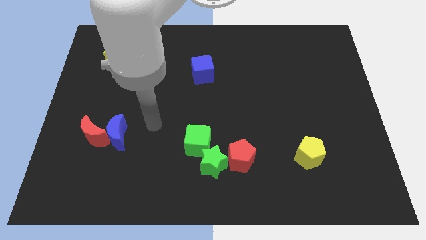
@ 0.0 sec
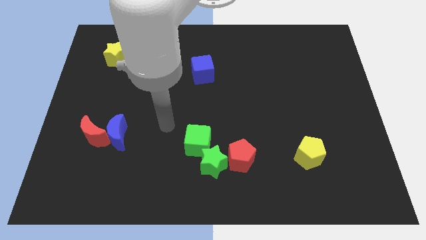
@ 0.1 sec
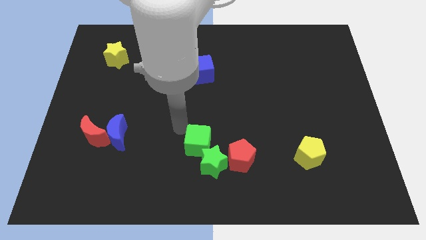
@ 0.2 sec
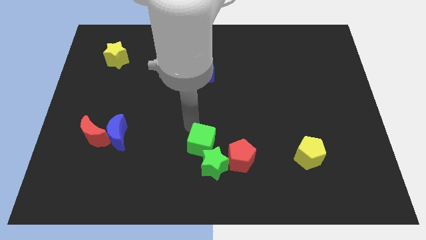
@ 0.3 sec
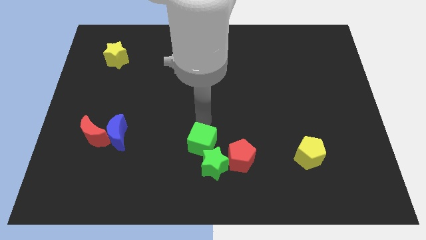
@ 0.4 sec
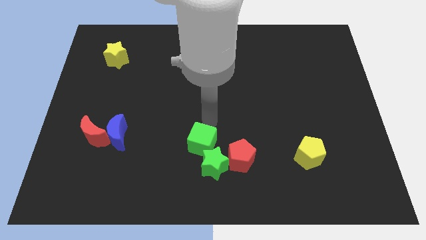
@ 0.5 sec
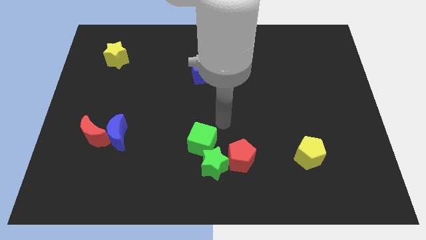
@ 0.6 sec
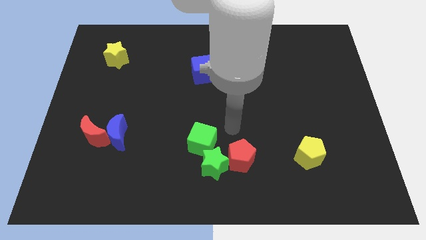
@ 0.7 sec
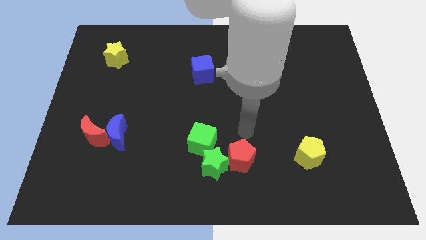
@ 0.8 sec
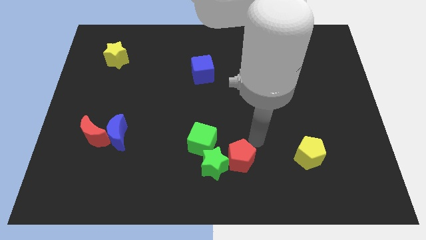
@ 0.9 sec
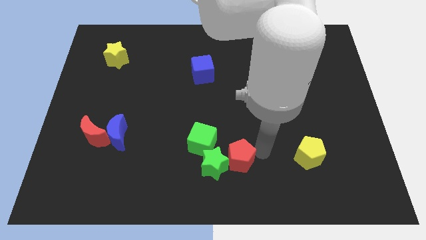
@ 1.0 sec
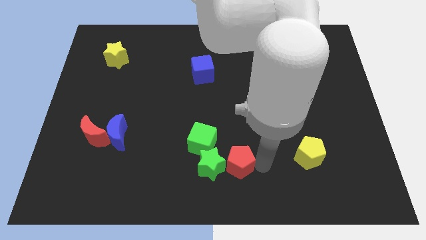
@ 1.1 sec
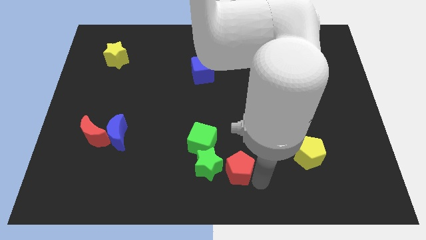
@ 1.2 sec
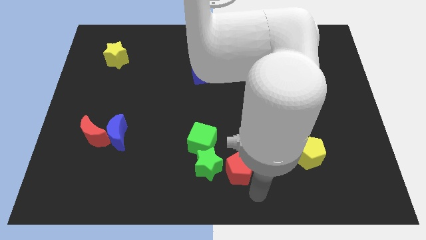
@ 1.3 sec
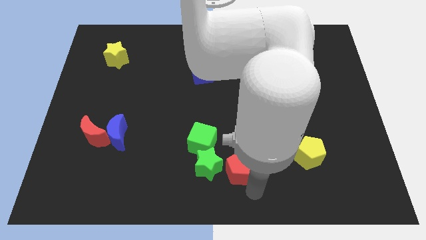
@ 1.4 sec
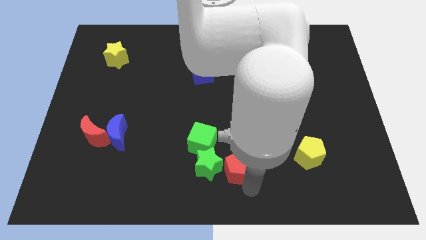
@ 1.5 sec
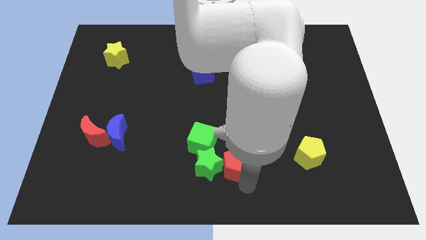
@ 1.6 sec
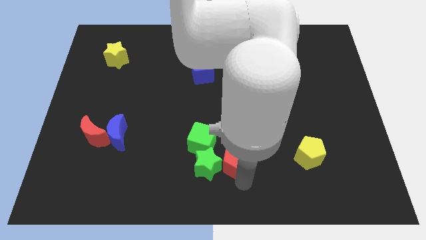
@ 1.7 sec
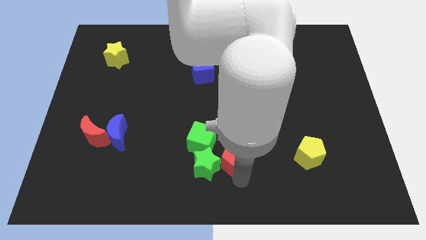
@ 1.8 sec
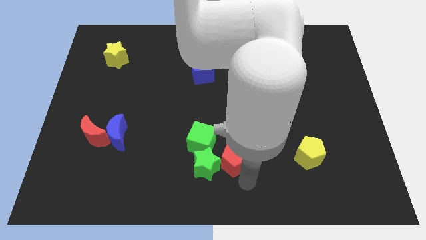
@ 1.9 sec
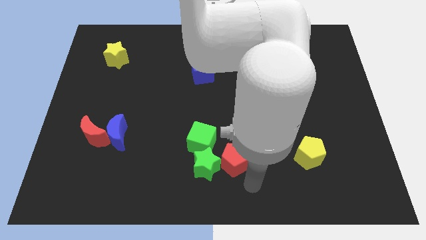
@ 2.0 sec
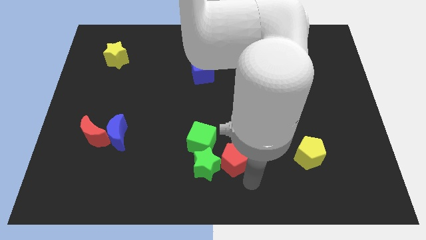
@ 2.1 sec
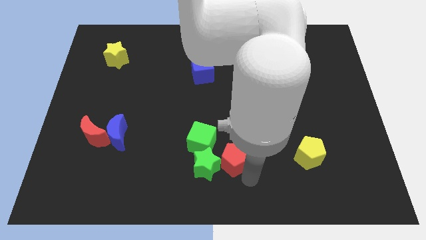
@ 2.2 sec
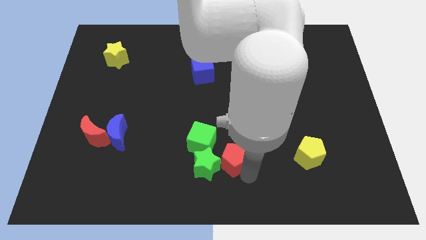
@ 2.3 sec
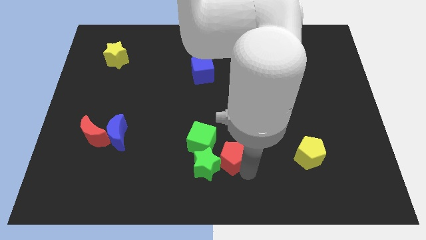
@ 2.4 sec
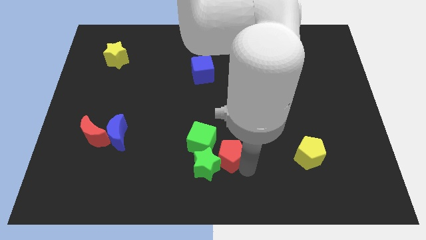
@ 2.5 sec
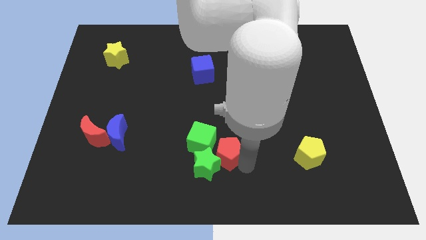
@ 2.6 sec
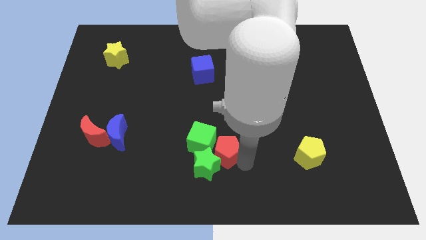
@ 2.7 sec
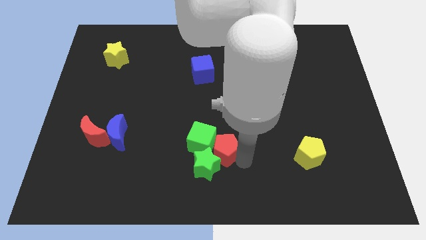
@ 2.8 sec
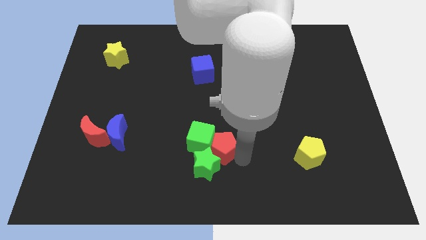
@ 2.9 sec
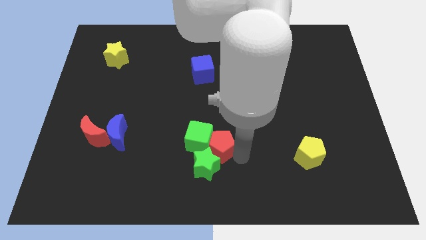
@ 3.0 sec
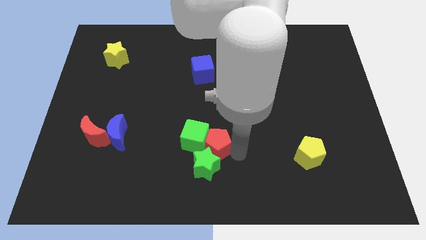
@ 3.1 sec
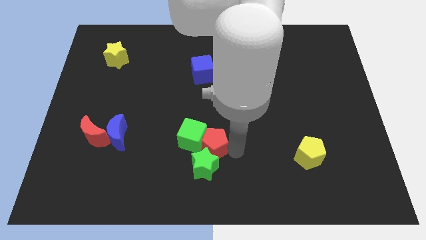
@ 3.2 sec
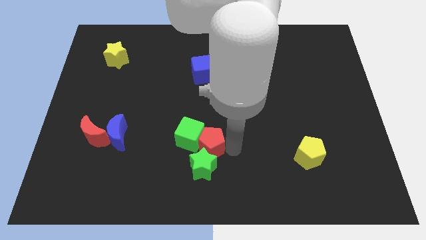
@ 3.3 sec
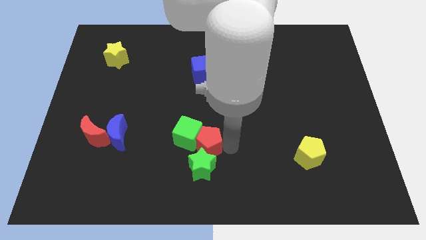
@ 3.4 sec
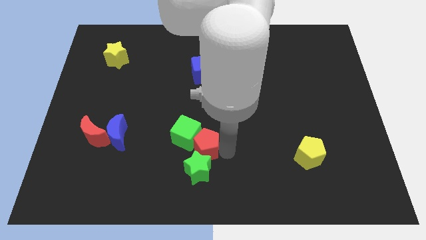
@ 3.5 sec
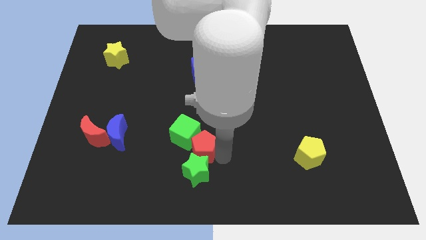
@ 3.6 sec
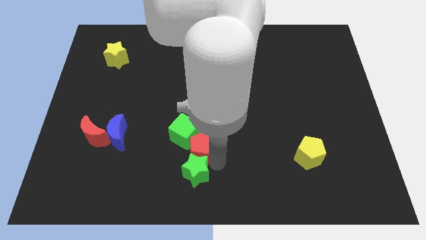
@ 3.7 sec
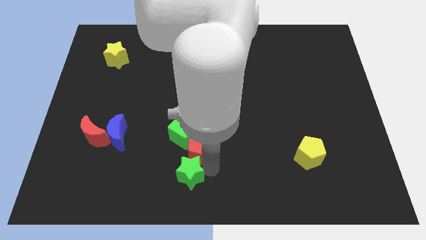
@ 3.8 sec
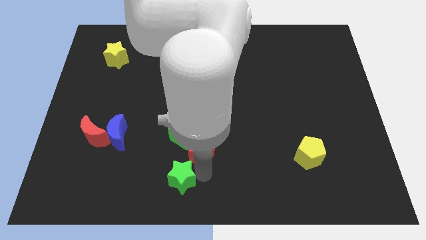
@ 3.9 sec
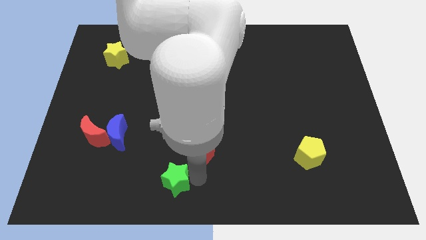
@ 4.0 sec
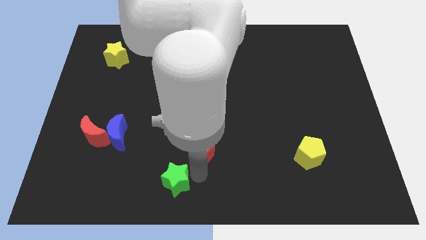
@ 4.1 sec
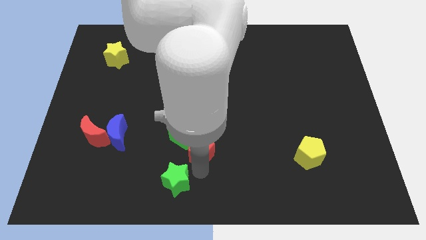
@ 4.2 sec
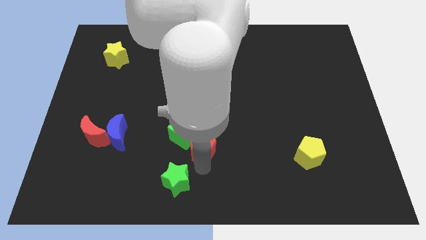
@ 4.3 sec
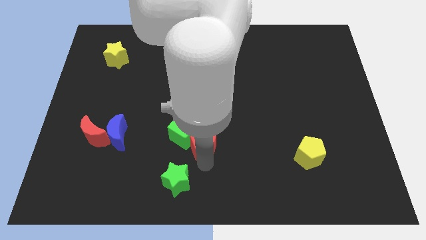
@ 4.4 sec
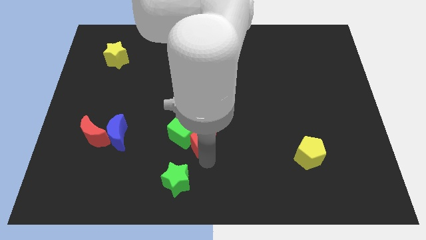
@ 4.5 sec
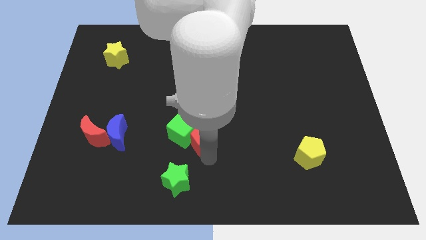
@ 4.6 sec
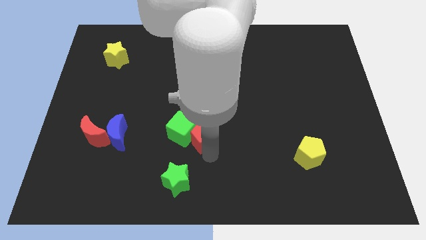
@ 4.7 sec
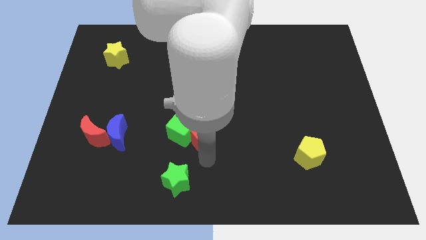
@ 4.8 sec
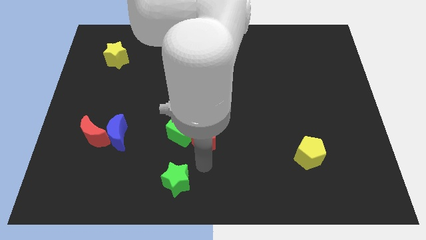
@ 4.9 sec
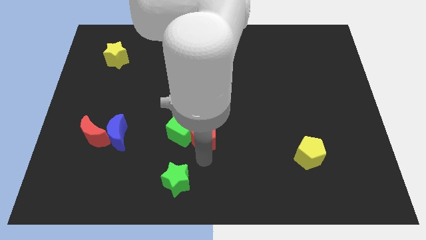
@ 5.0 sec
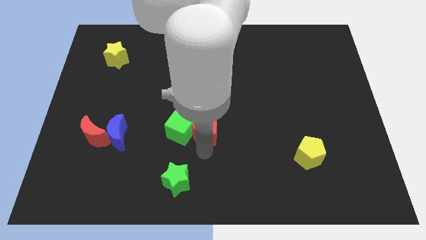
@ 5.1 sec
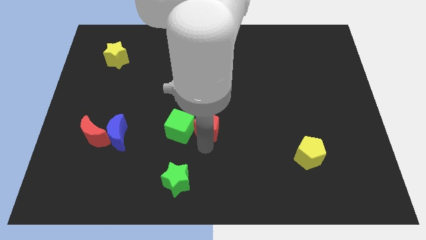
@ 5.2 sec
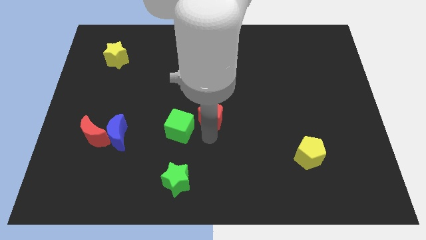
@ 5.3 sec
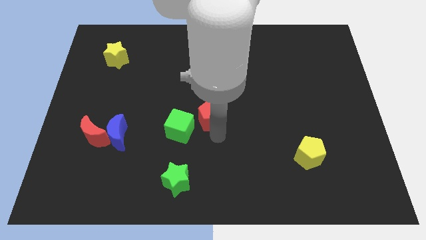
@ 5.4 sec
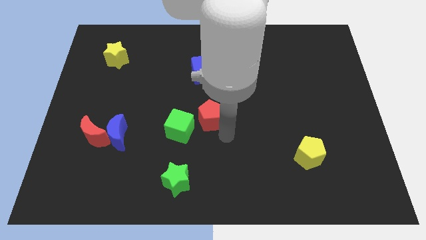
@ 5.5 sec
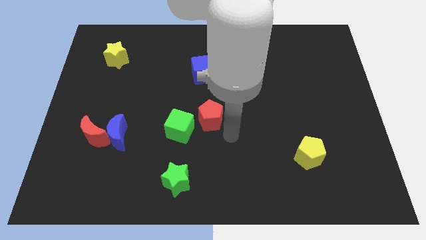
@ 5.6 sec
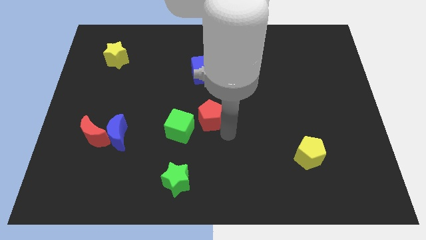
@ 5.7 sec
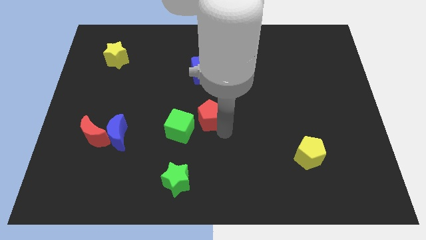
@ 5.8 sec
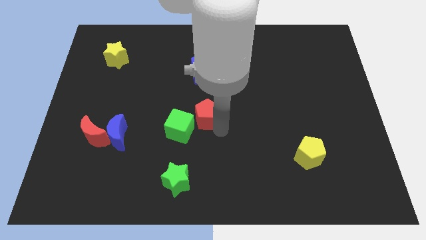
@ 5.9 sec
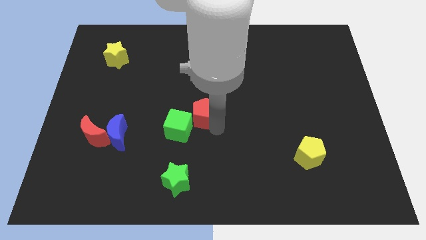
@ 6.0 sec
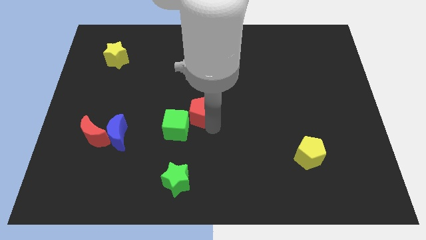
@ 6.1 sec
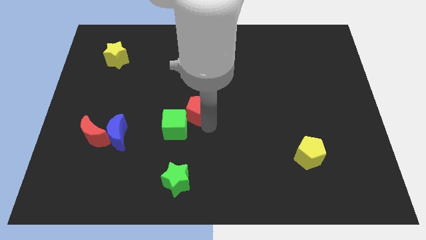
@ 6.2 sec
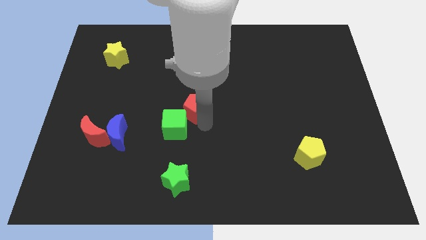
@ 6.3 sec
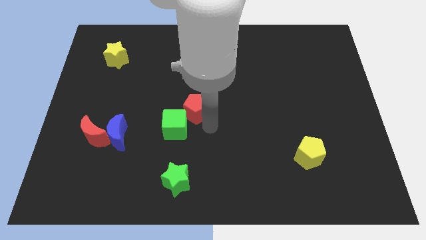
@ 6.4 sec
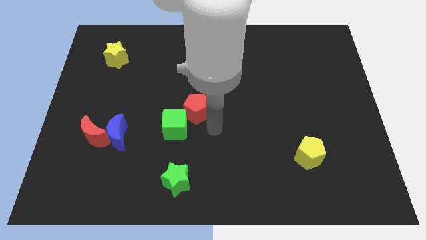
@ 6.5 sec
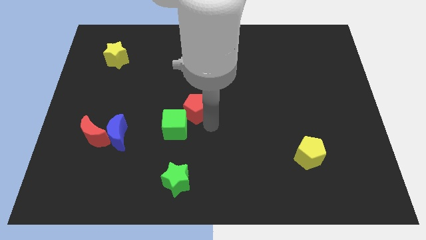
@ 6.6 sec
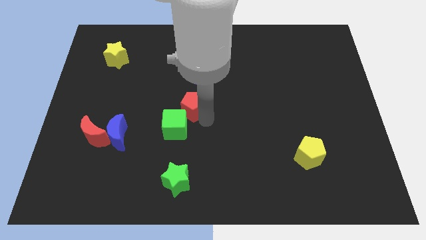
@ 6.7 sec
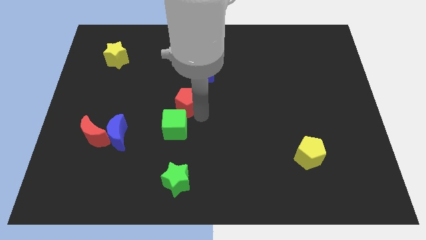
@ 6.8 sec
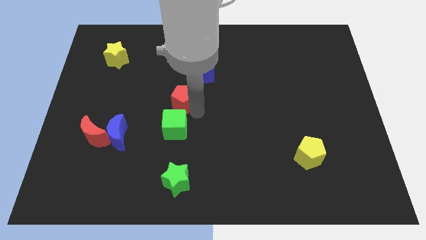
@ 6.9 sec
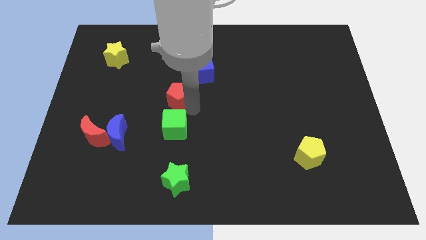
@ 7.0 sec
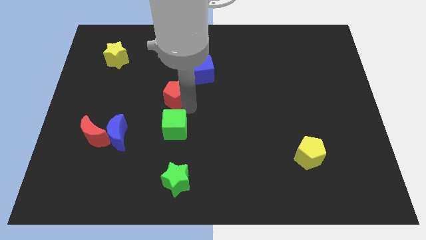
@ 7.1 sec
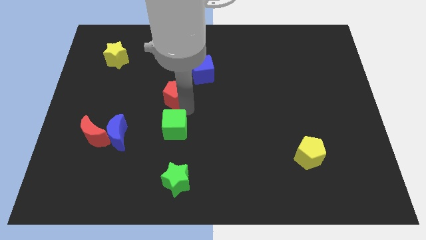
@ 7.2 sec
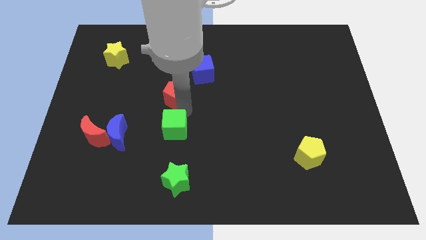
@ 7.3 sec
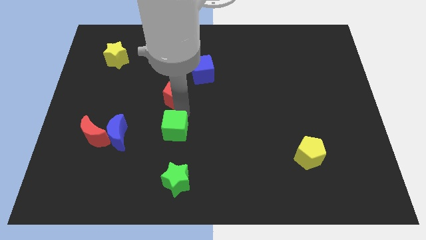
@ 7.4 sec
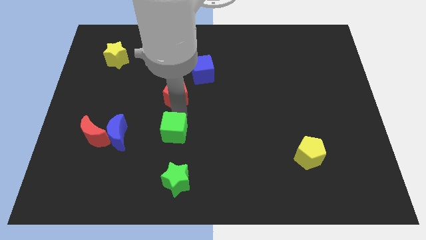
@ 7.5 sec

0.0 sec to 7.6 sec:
move the red pentagon above the green cube

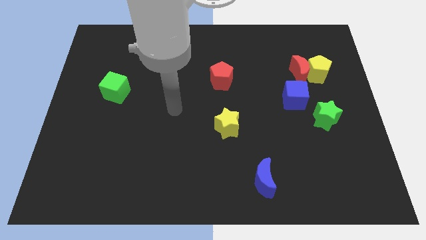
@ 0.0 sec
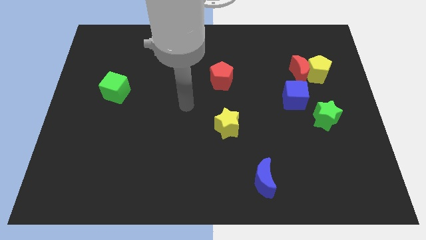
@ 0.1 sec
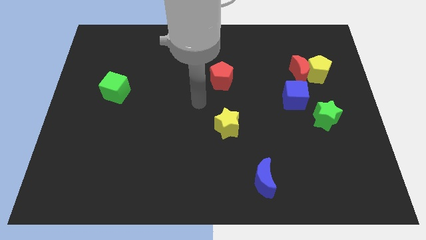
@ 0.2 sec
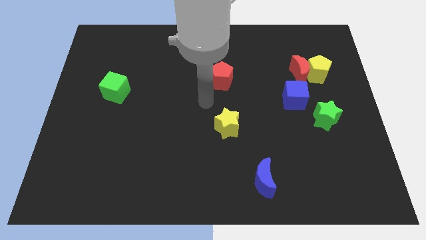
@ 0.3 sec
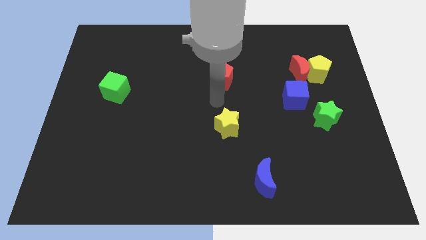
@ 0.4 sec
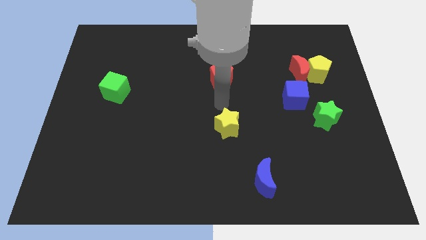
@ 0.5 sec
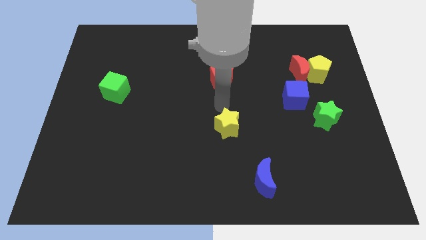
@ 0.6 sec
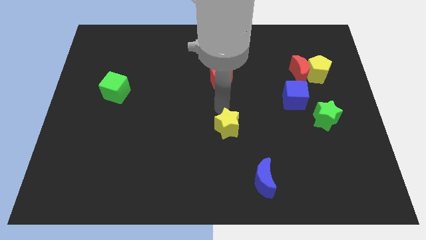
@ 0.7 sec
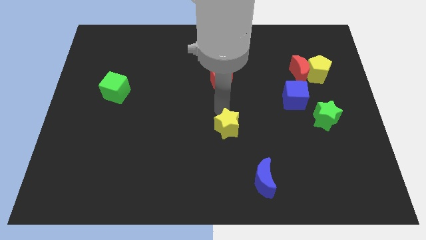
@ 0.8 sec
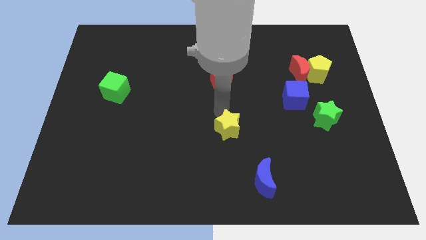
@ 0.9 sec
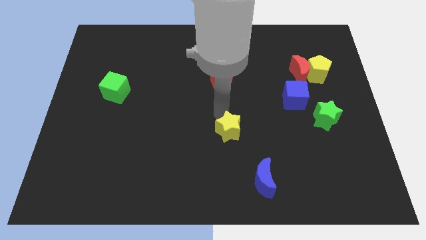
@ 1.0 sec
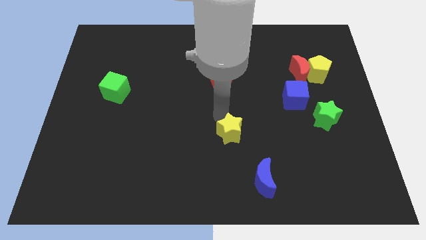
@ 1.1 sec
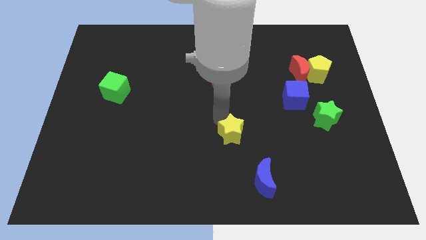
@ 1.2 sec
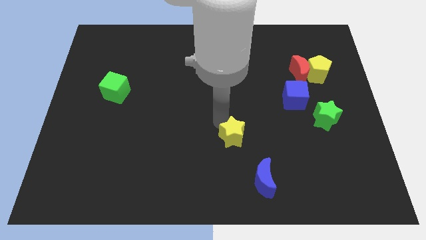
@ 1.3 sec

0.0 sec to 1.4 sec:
push the yellow star to the top left of the blue moon
